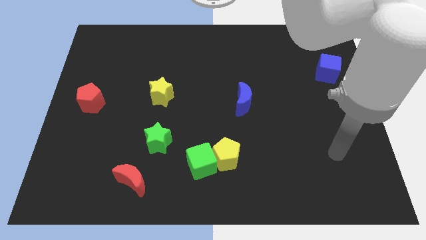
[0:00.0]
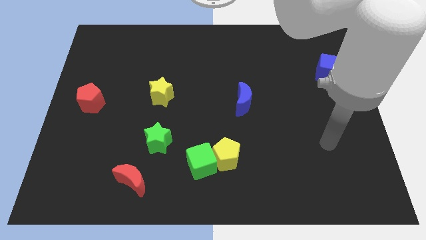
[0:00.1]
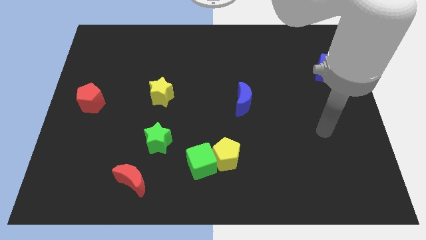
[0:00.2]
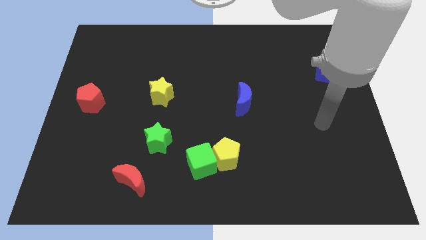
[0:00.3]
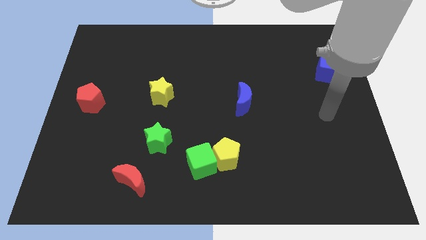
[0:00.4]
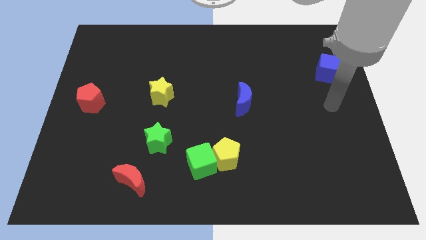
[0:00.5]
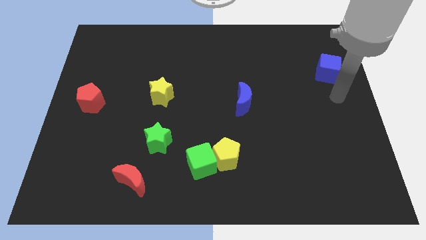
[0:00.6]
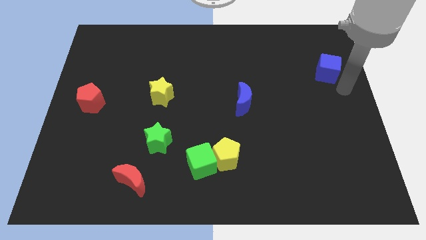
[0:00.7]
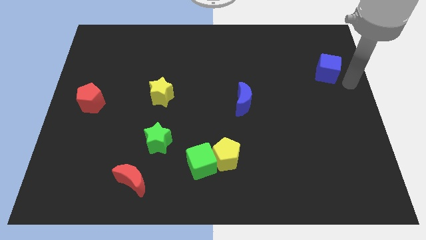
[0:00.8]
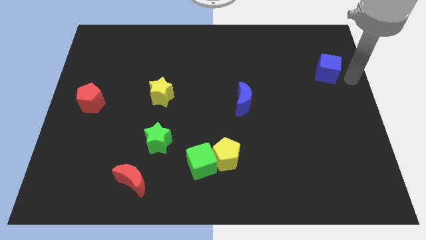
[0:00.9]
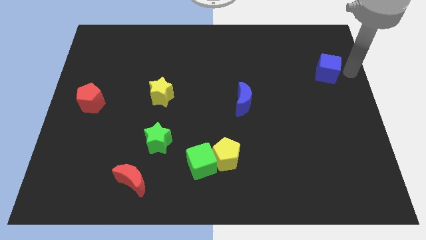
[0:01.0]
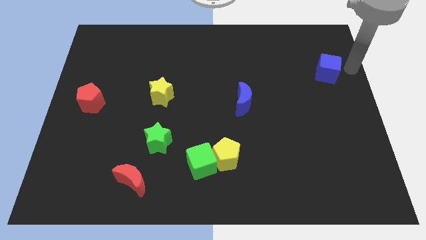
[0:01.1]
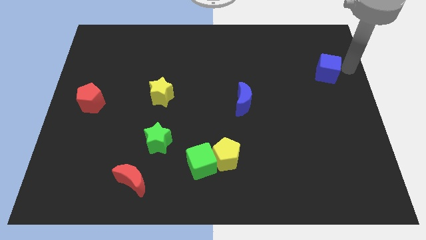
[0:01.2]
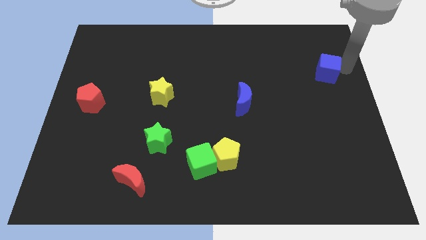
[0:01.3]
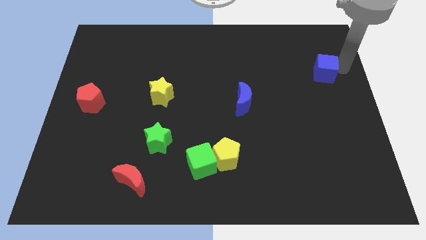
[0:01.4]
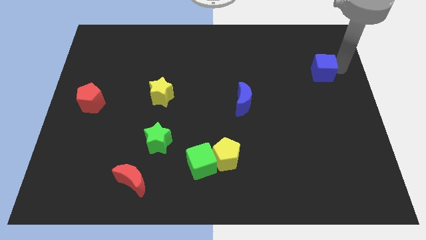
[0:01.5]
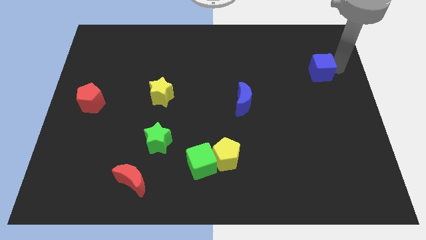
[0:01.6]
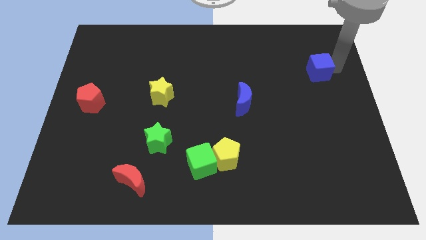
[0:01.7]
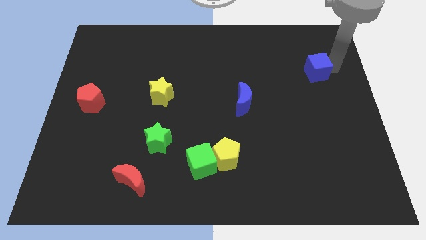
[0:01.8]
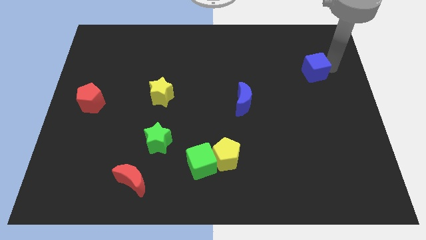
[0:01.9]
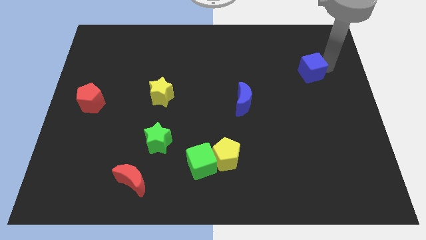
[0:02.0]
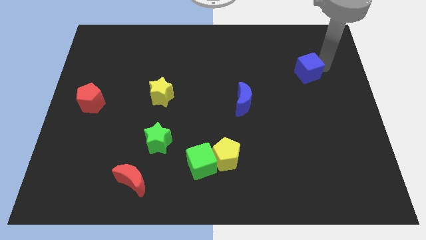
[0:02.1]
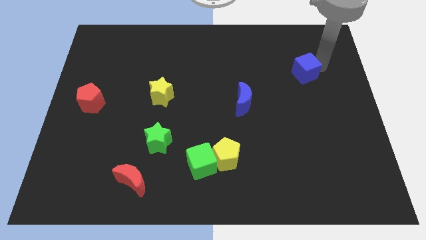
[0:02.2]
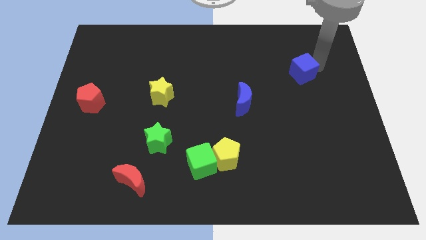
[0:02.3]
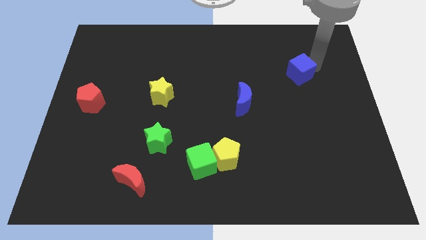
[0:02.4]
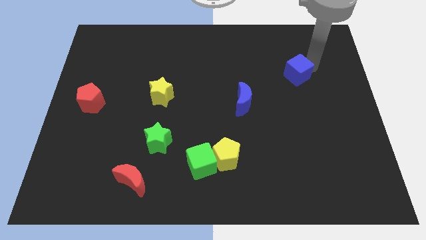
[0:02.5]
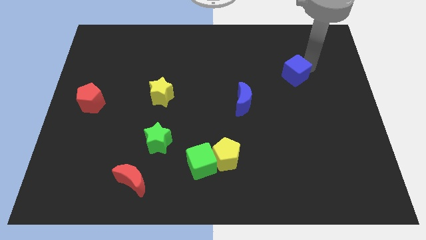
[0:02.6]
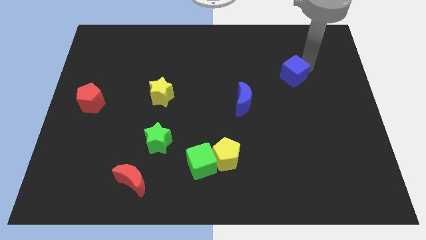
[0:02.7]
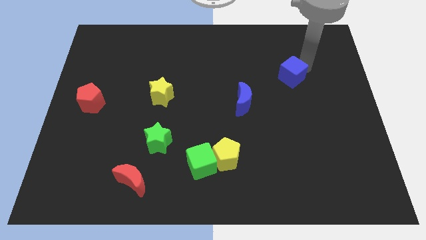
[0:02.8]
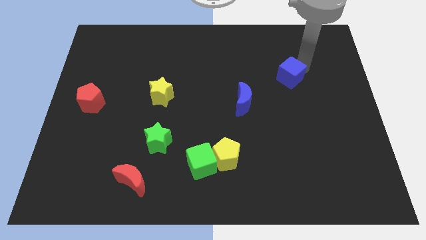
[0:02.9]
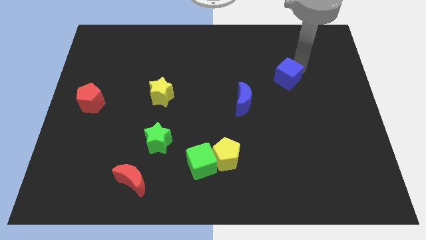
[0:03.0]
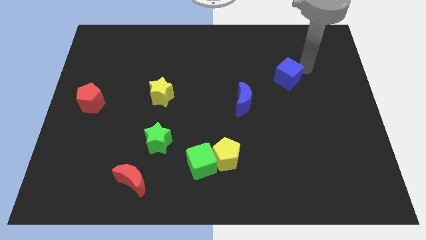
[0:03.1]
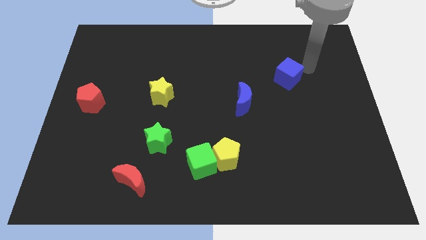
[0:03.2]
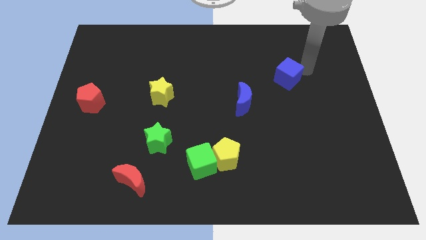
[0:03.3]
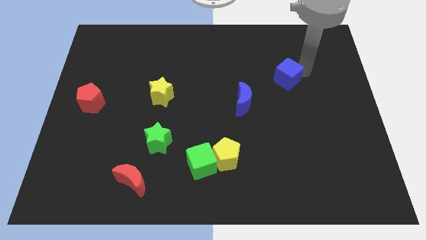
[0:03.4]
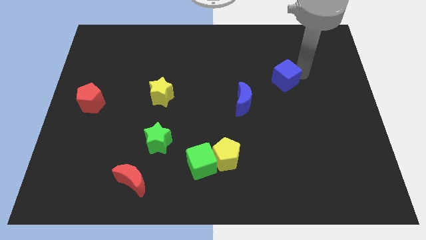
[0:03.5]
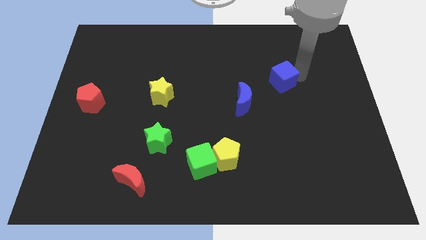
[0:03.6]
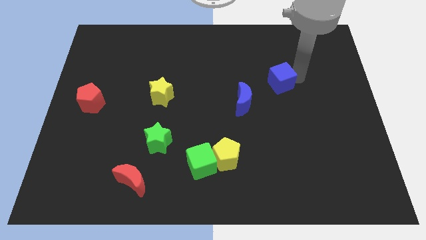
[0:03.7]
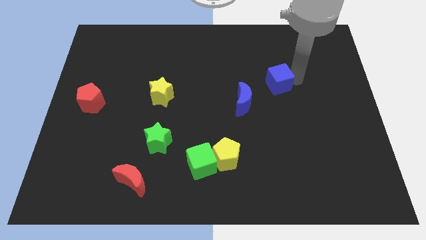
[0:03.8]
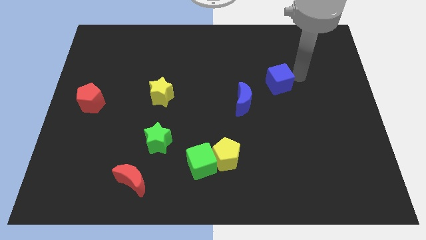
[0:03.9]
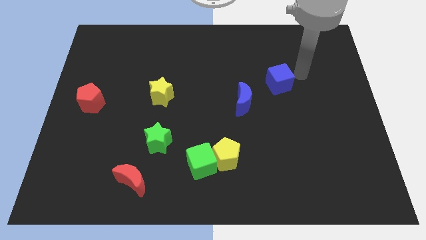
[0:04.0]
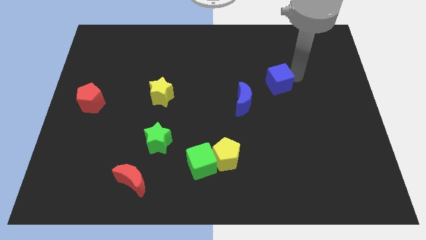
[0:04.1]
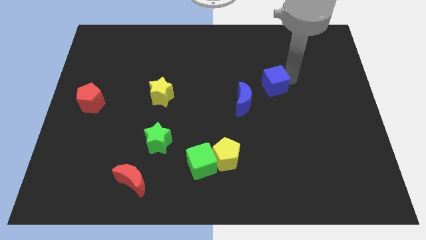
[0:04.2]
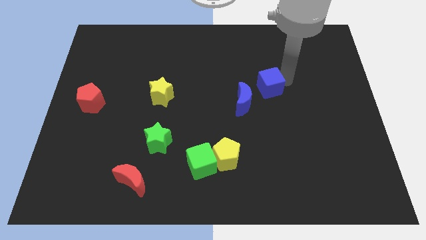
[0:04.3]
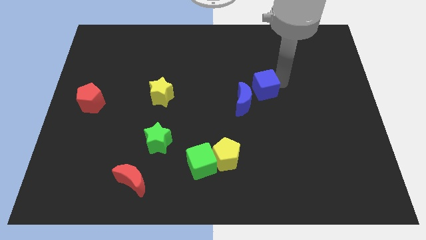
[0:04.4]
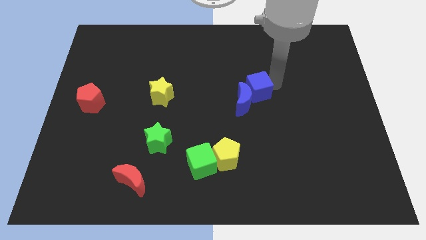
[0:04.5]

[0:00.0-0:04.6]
move the blue cube close to the blue moon

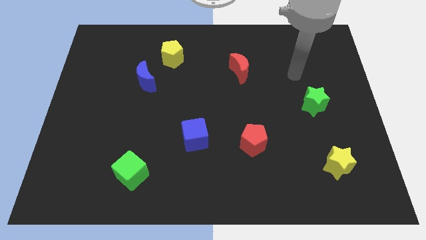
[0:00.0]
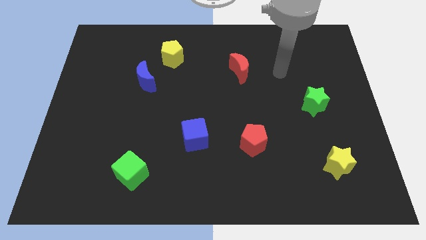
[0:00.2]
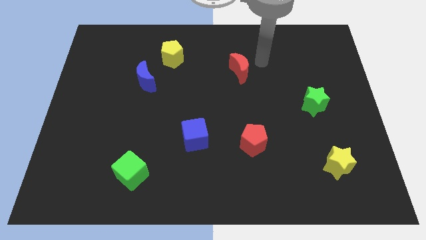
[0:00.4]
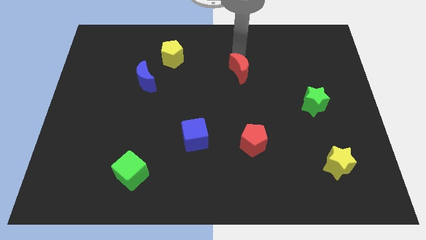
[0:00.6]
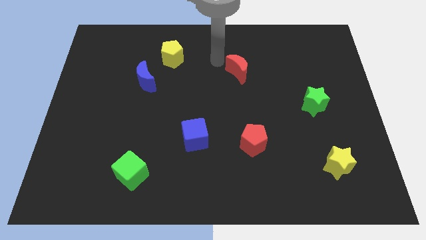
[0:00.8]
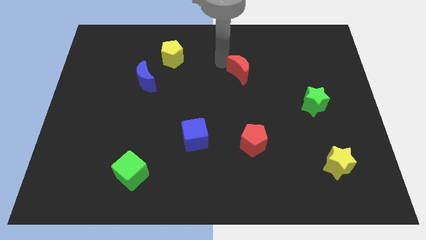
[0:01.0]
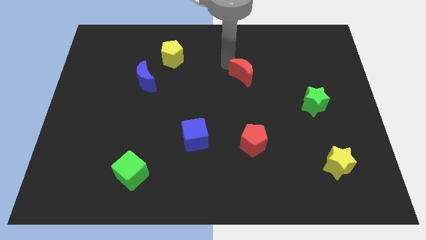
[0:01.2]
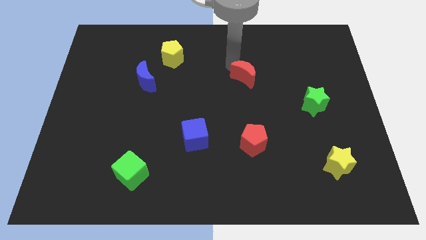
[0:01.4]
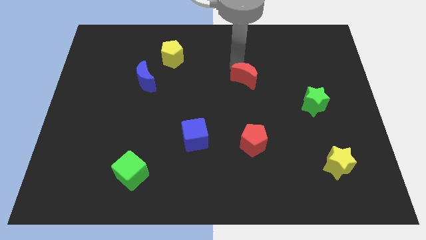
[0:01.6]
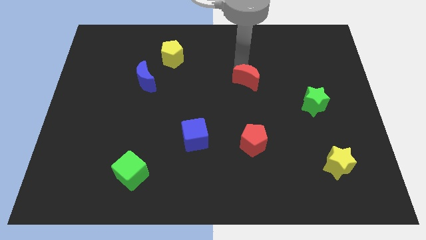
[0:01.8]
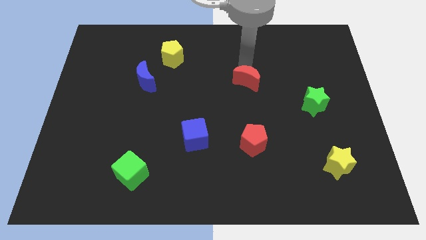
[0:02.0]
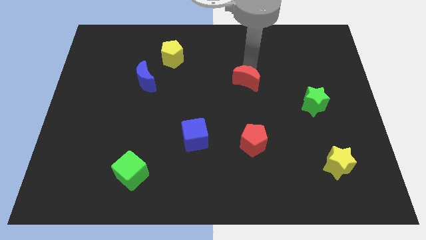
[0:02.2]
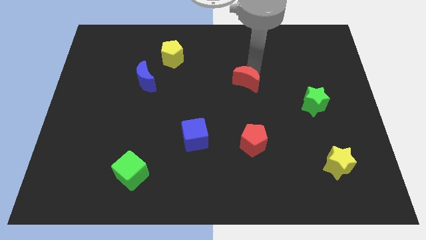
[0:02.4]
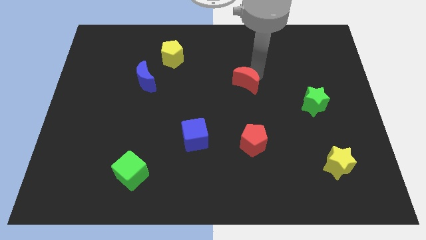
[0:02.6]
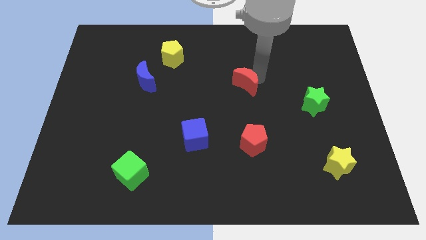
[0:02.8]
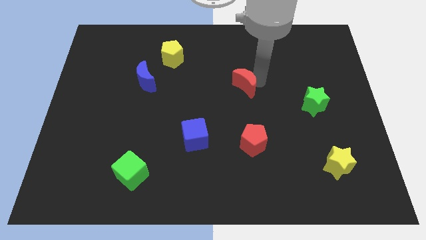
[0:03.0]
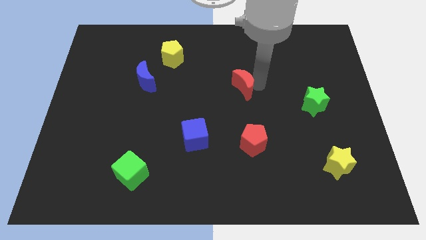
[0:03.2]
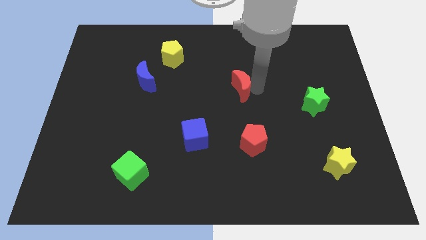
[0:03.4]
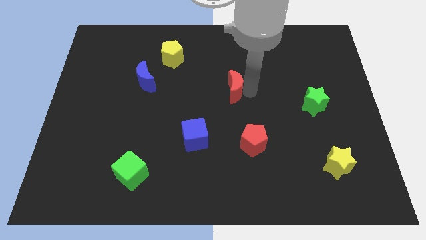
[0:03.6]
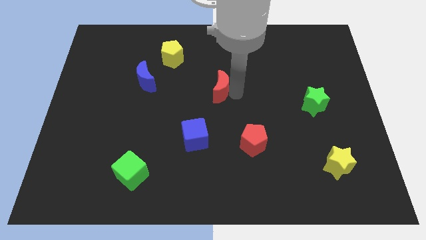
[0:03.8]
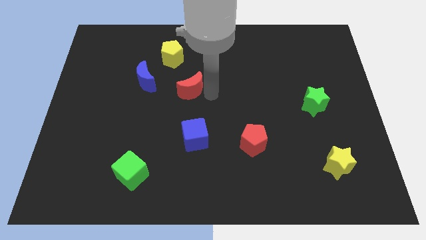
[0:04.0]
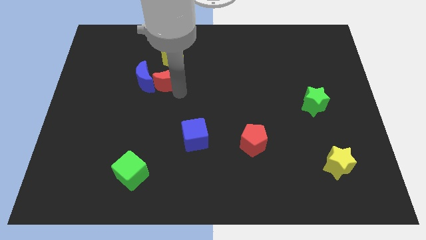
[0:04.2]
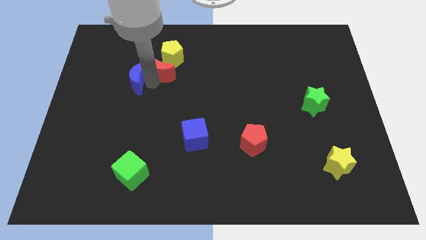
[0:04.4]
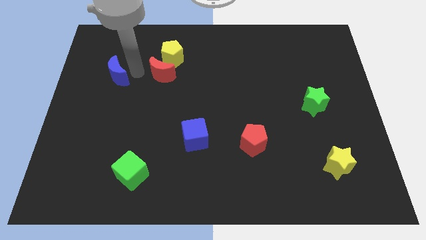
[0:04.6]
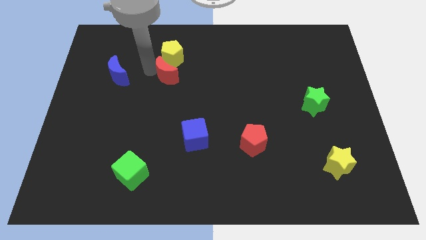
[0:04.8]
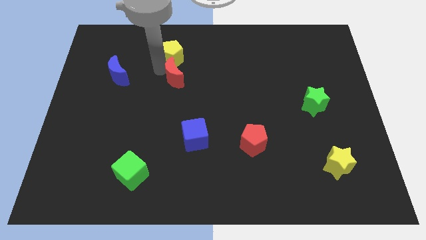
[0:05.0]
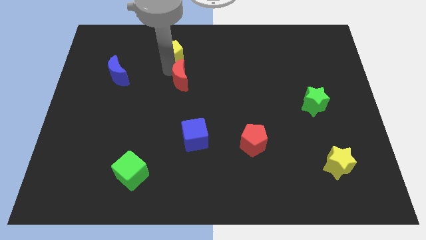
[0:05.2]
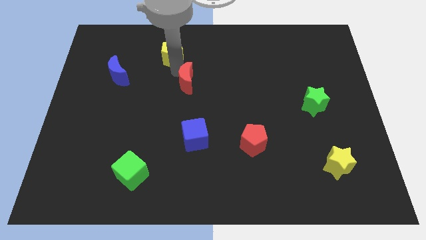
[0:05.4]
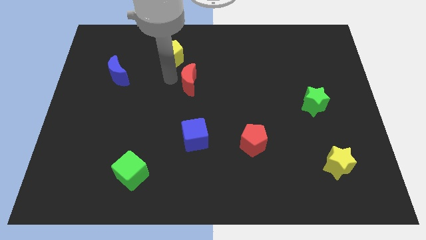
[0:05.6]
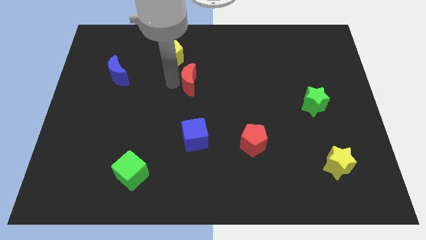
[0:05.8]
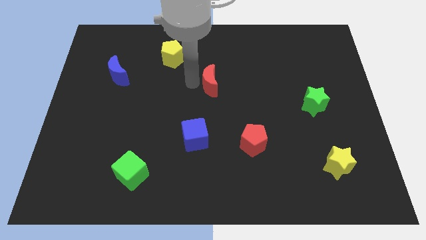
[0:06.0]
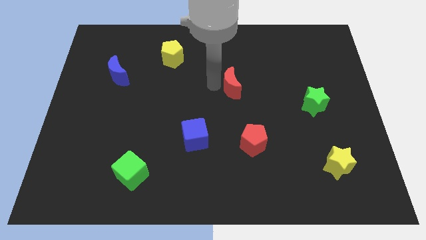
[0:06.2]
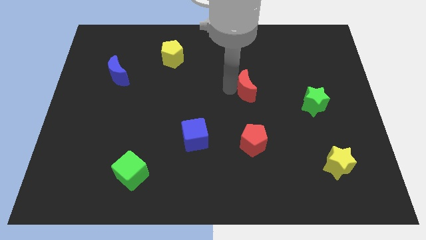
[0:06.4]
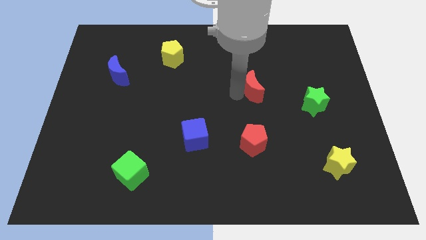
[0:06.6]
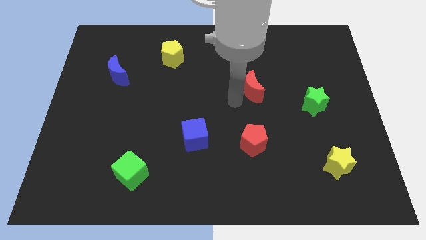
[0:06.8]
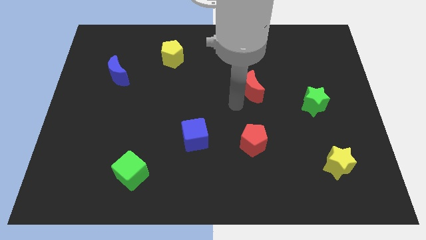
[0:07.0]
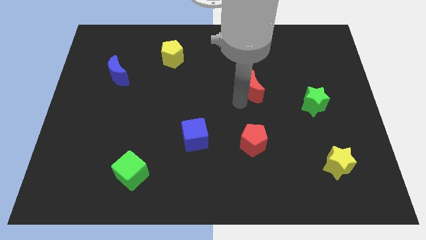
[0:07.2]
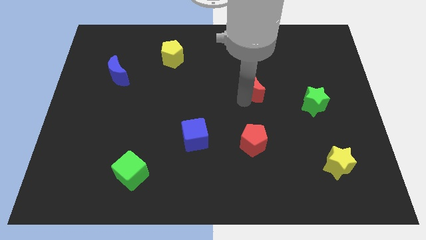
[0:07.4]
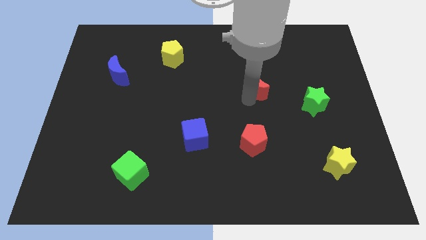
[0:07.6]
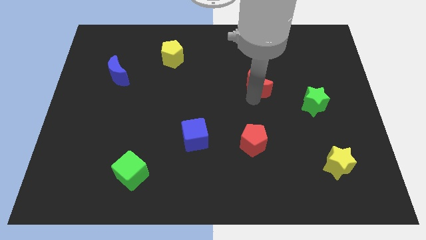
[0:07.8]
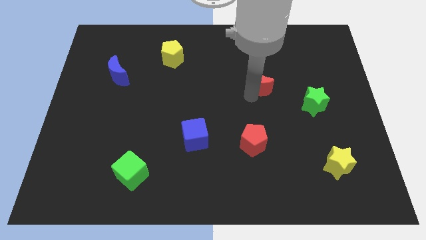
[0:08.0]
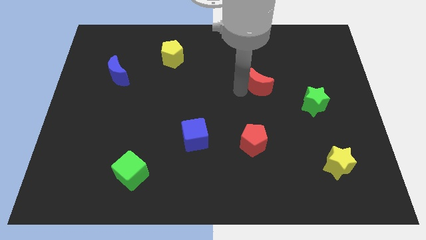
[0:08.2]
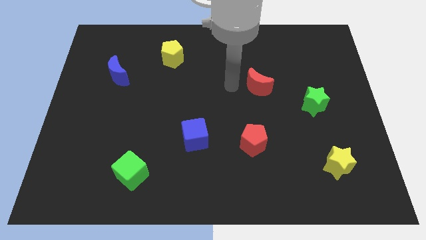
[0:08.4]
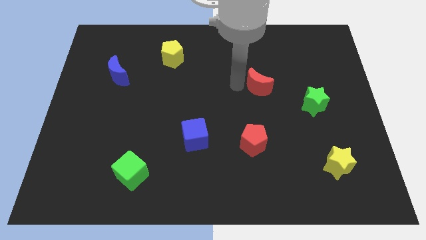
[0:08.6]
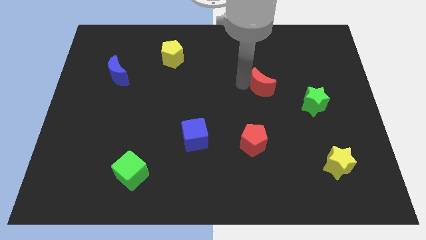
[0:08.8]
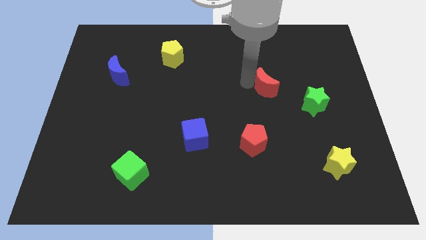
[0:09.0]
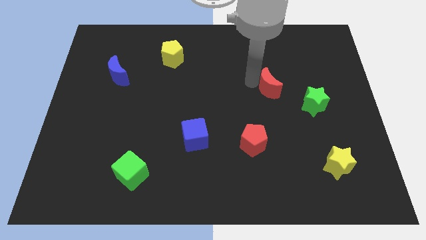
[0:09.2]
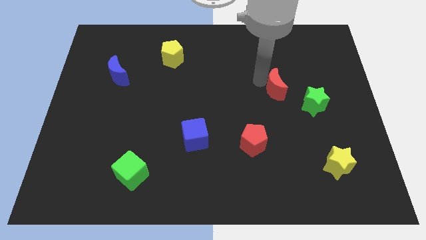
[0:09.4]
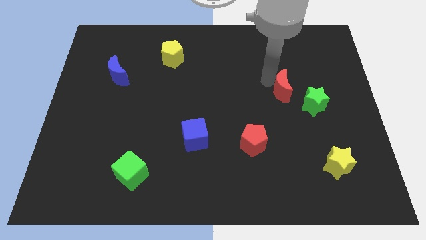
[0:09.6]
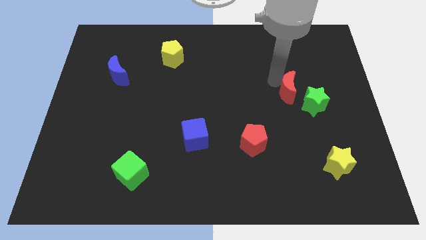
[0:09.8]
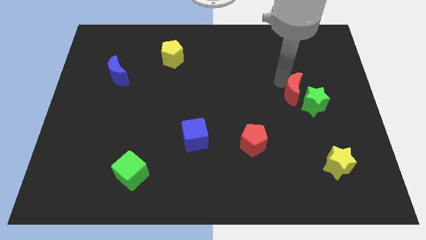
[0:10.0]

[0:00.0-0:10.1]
put the red moon close to the green star
